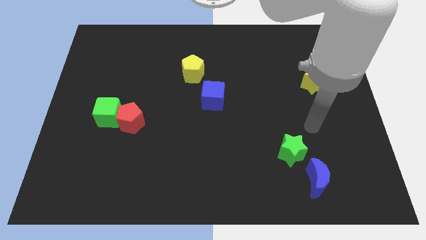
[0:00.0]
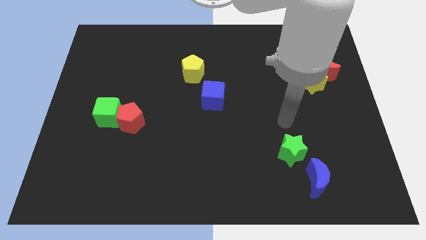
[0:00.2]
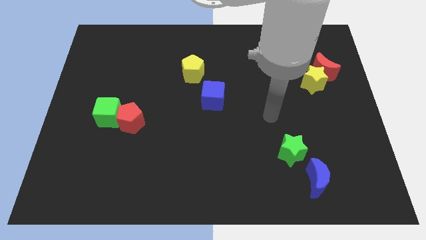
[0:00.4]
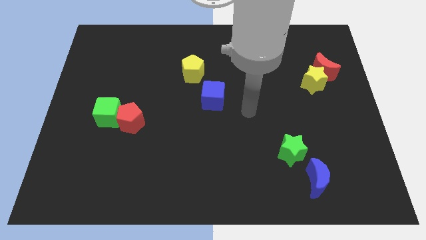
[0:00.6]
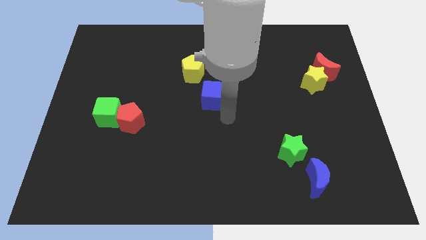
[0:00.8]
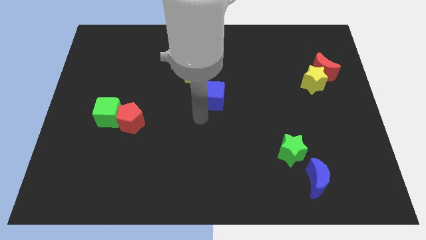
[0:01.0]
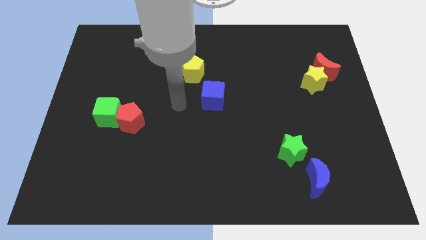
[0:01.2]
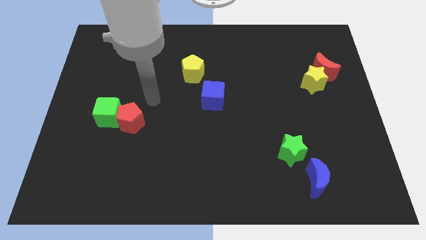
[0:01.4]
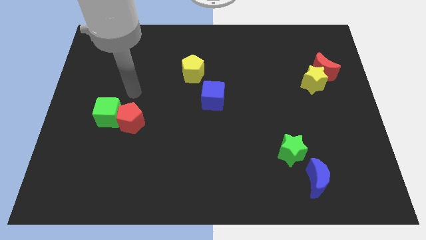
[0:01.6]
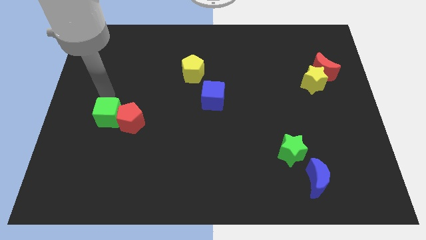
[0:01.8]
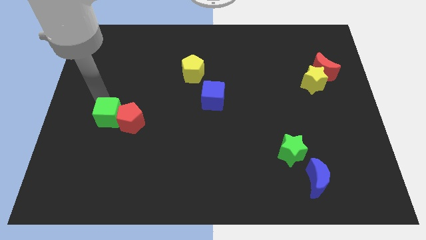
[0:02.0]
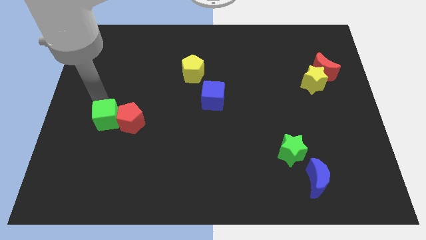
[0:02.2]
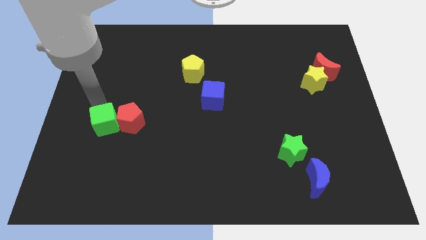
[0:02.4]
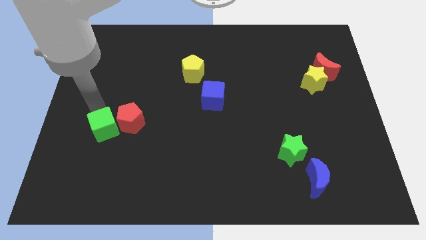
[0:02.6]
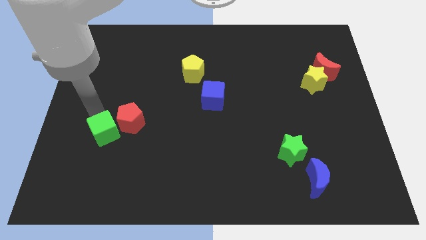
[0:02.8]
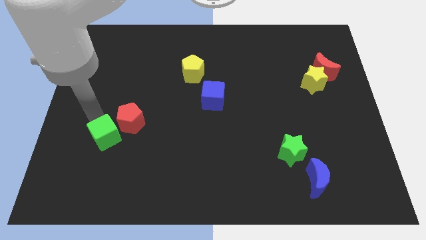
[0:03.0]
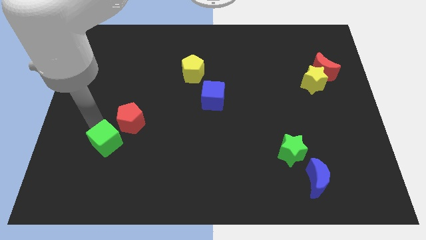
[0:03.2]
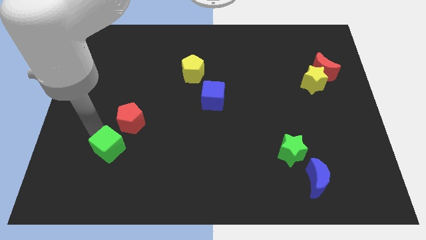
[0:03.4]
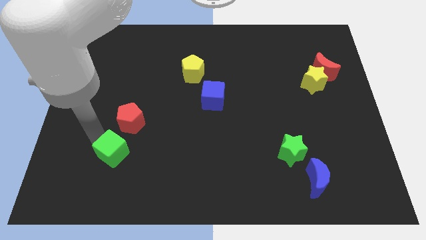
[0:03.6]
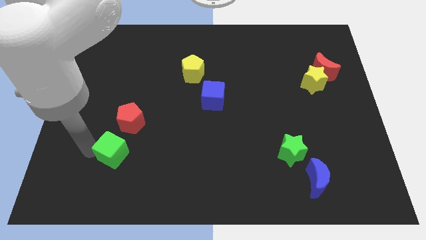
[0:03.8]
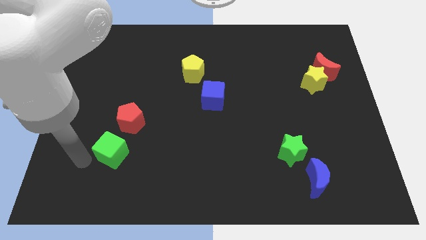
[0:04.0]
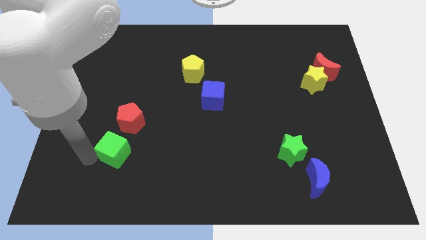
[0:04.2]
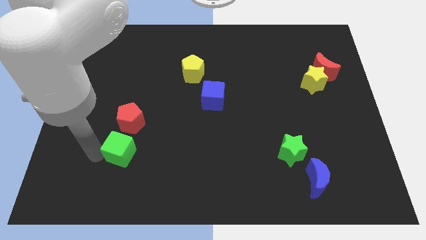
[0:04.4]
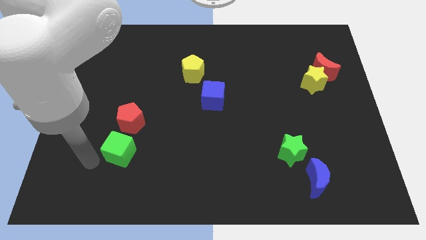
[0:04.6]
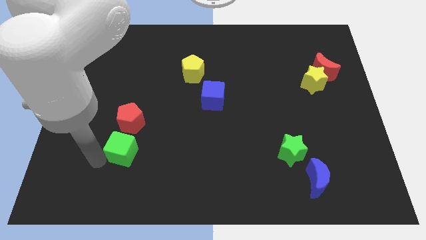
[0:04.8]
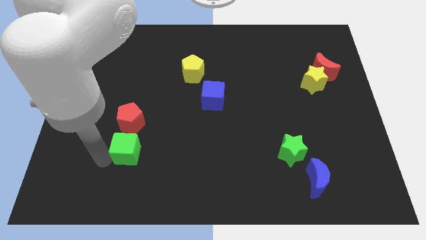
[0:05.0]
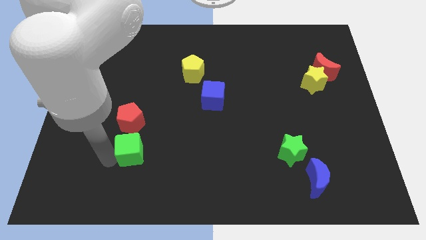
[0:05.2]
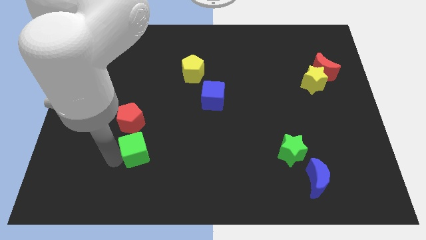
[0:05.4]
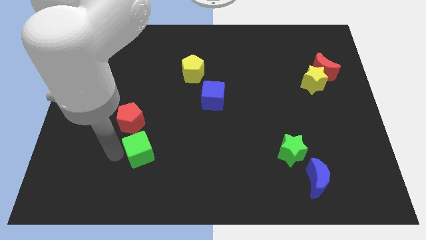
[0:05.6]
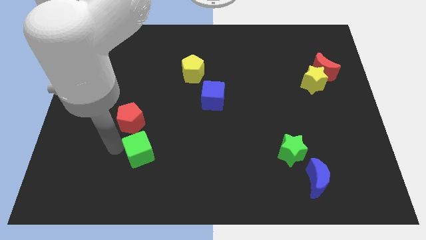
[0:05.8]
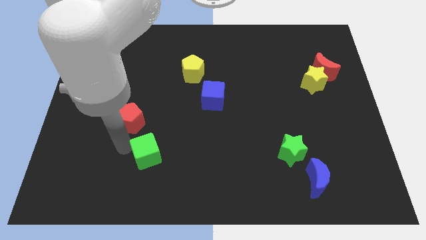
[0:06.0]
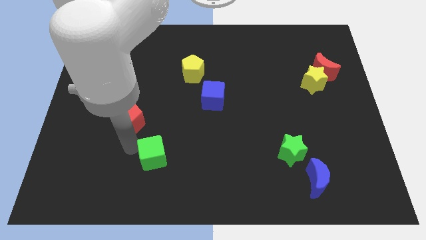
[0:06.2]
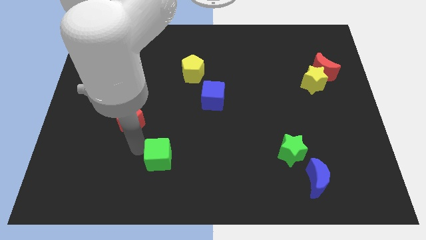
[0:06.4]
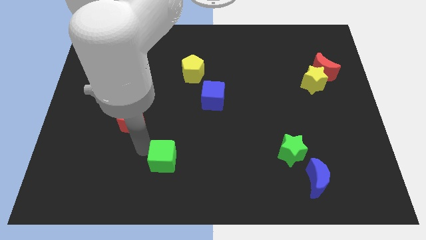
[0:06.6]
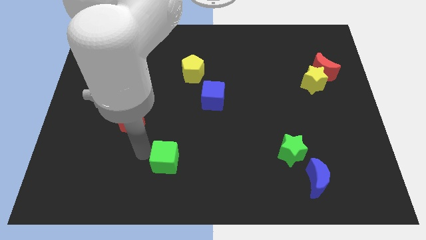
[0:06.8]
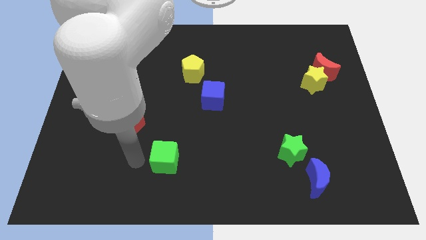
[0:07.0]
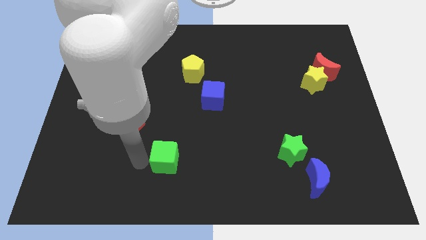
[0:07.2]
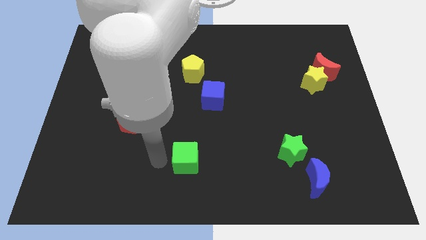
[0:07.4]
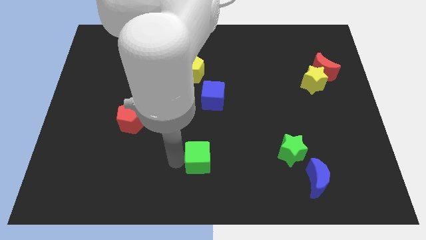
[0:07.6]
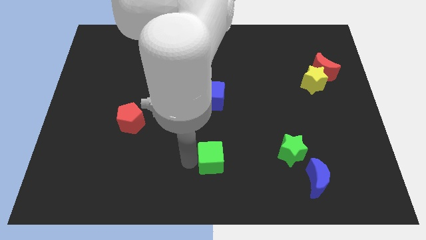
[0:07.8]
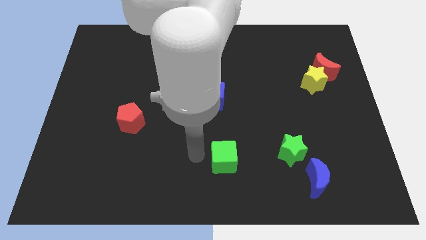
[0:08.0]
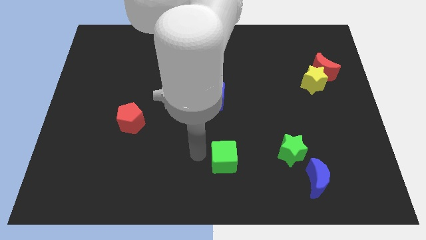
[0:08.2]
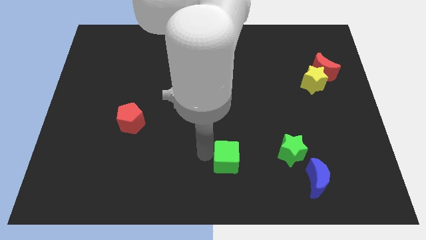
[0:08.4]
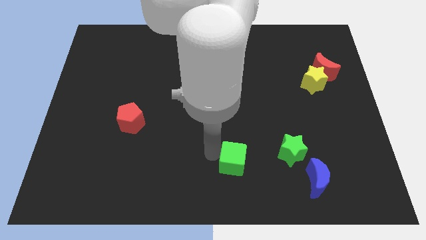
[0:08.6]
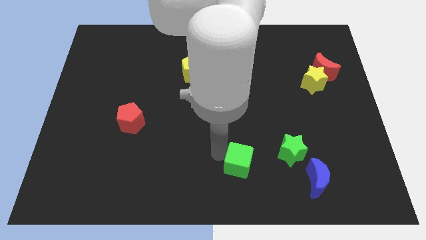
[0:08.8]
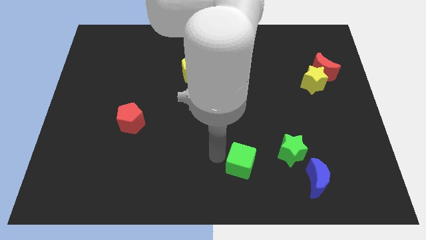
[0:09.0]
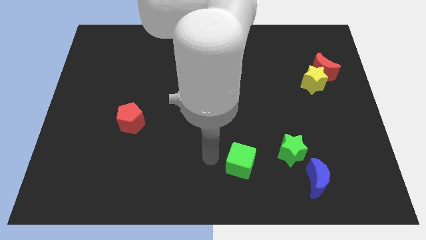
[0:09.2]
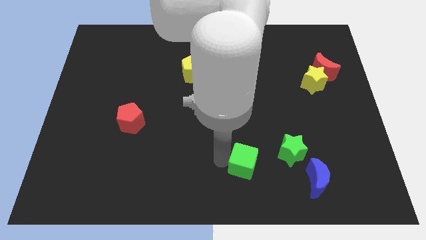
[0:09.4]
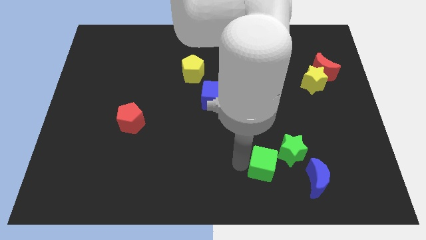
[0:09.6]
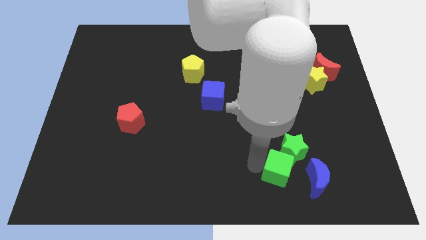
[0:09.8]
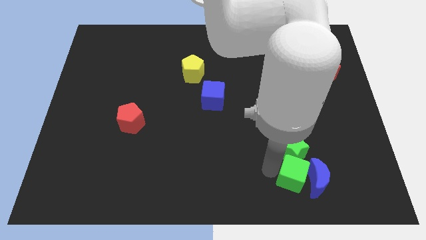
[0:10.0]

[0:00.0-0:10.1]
put the green cube towards the blue moon

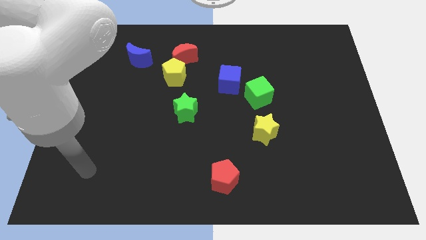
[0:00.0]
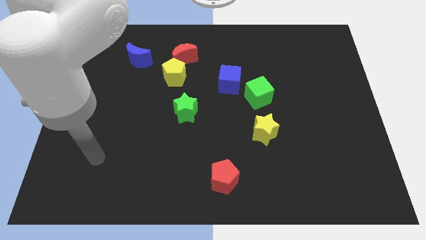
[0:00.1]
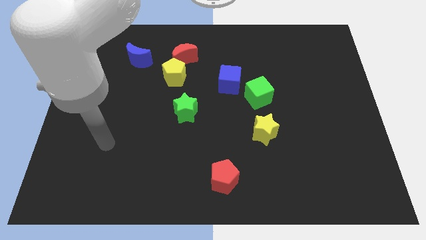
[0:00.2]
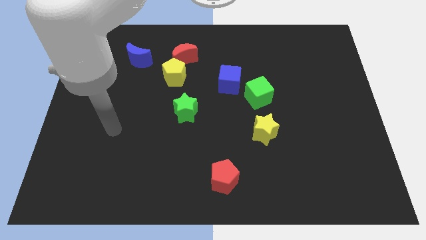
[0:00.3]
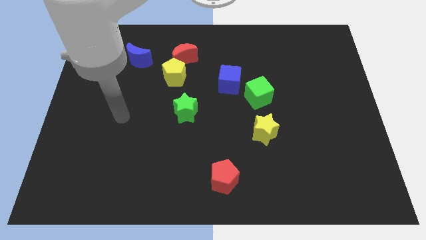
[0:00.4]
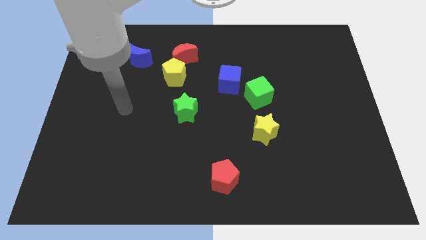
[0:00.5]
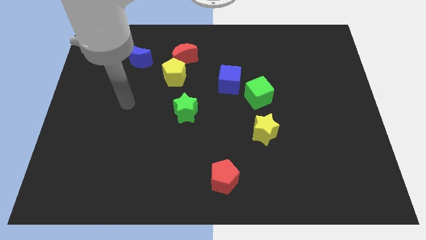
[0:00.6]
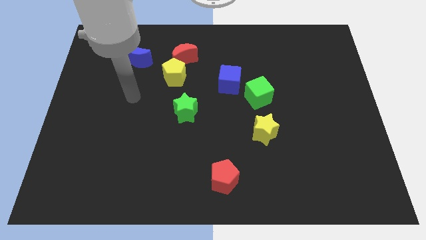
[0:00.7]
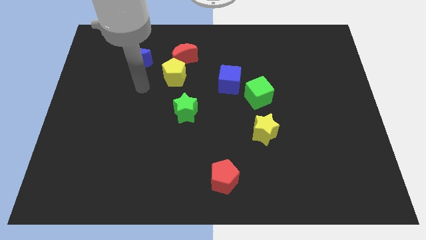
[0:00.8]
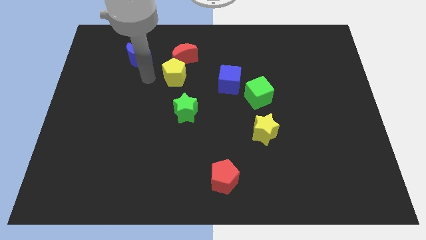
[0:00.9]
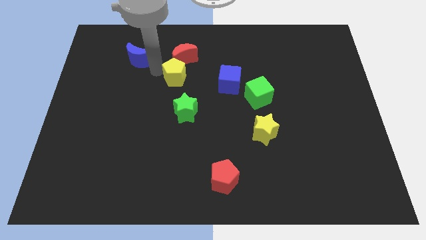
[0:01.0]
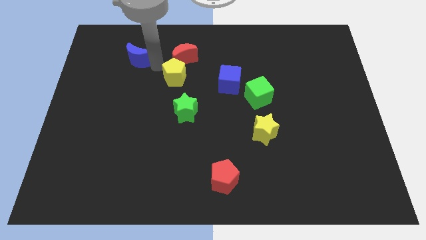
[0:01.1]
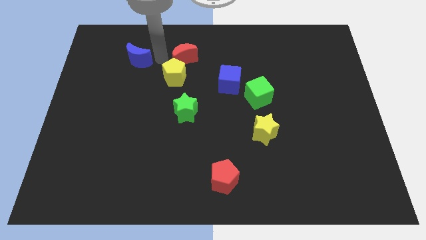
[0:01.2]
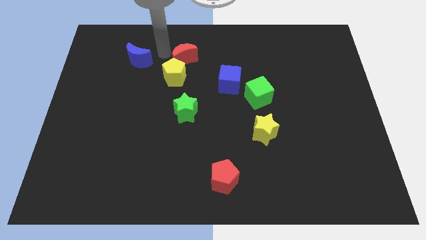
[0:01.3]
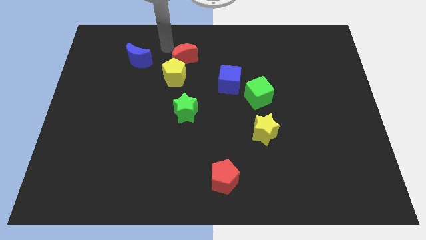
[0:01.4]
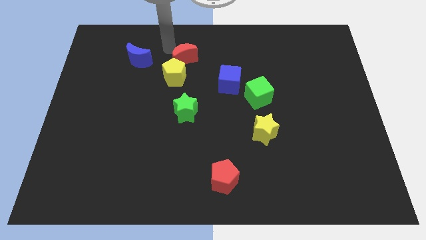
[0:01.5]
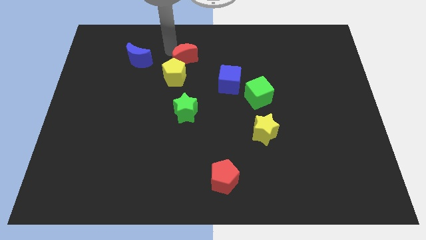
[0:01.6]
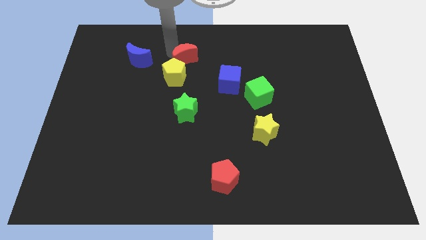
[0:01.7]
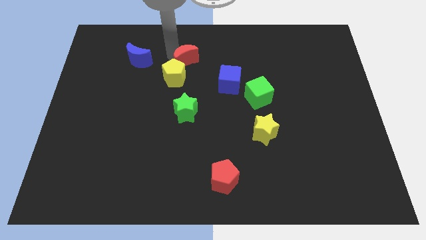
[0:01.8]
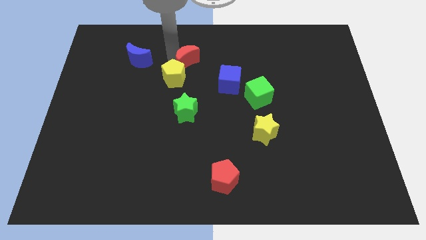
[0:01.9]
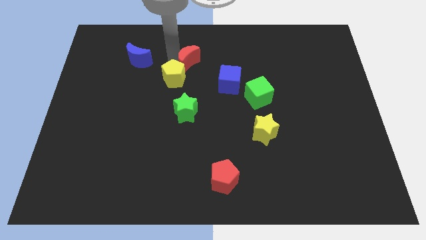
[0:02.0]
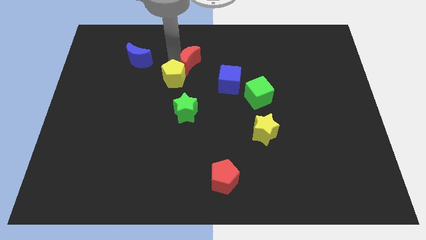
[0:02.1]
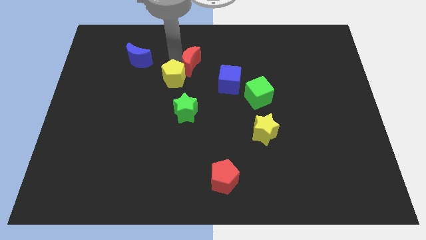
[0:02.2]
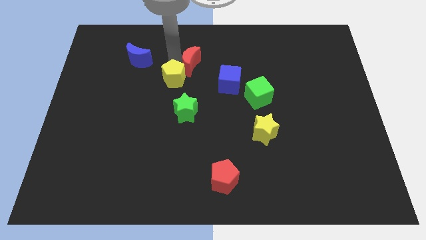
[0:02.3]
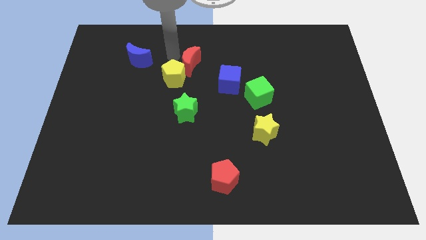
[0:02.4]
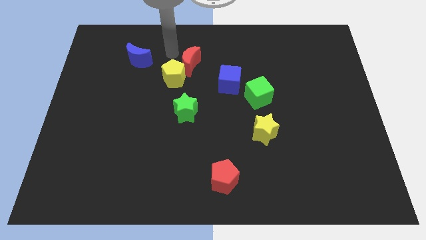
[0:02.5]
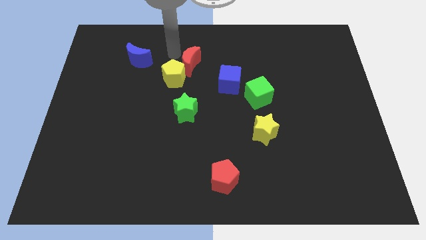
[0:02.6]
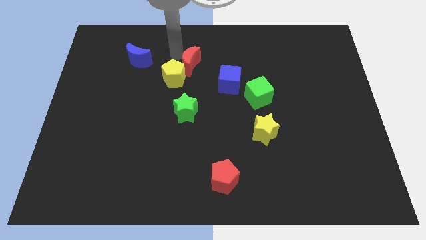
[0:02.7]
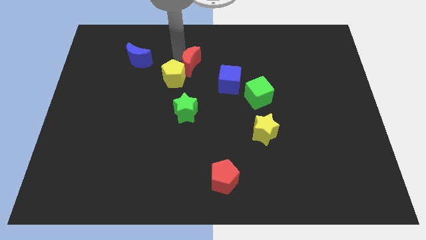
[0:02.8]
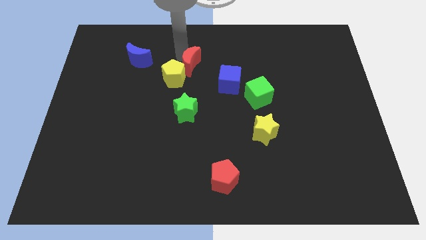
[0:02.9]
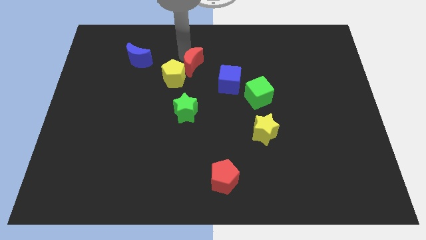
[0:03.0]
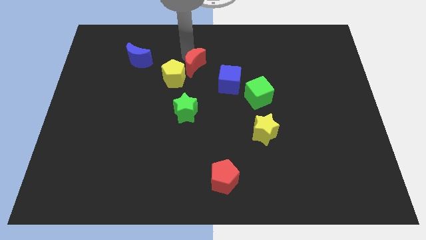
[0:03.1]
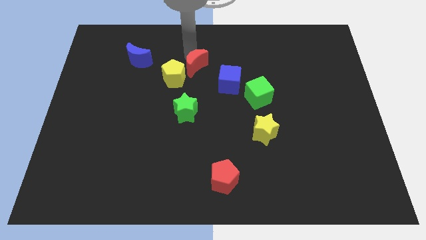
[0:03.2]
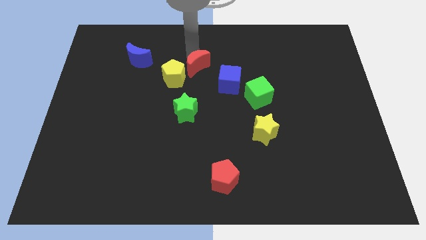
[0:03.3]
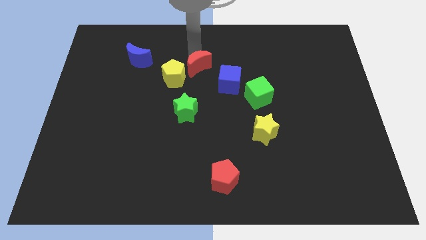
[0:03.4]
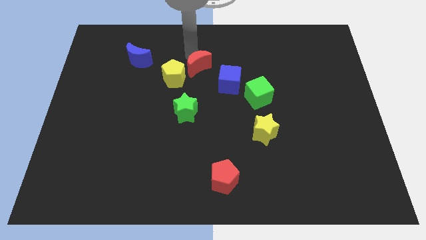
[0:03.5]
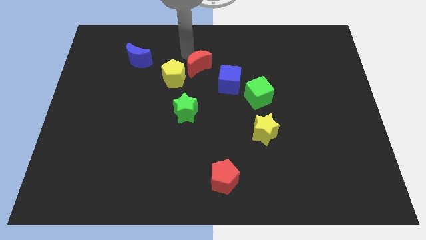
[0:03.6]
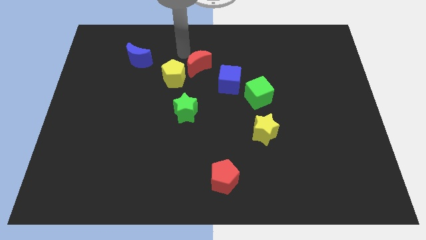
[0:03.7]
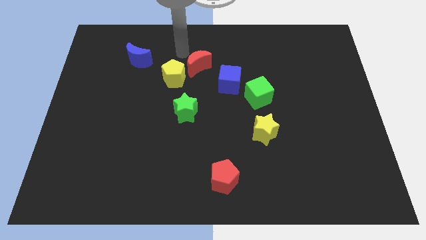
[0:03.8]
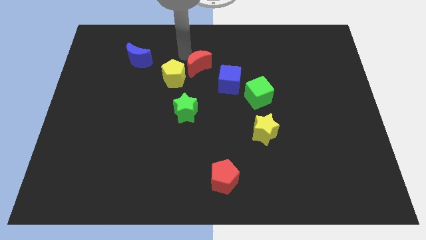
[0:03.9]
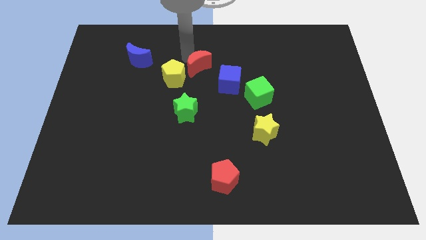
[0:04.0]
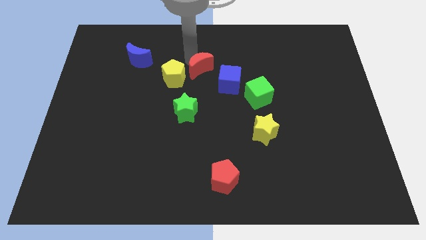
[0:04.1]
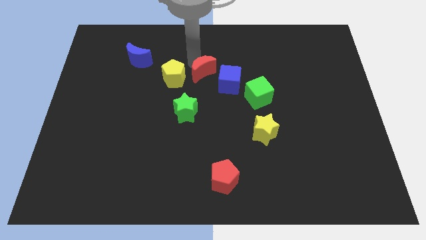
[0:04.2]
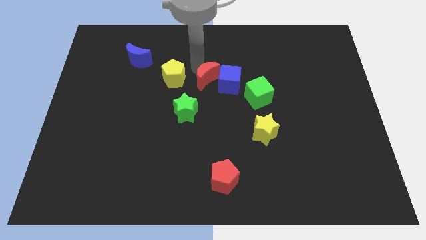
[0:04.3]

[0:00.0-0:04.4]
put the red moon towards the blue cube
